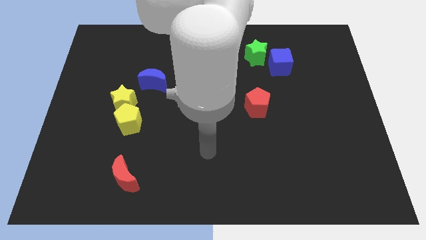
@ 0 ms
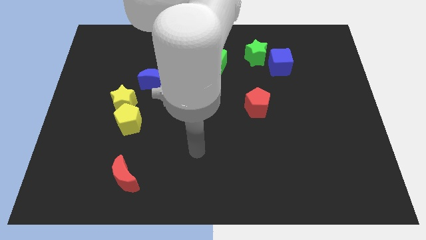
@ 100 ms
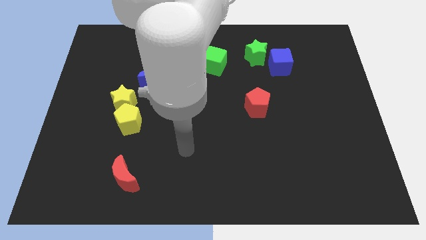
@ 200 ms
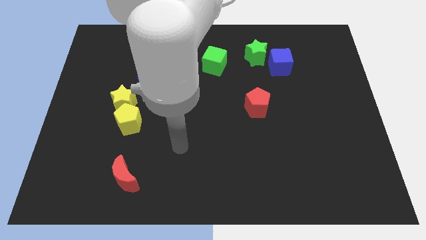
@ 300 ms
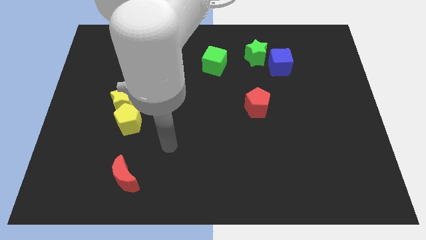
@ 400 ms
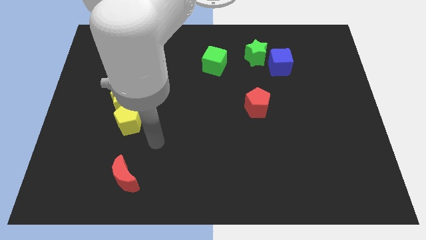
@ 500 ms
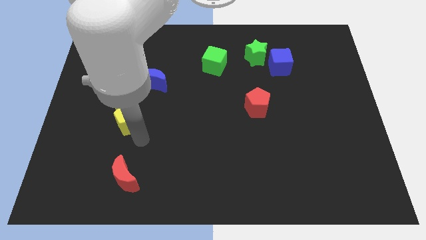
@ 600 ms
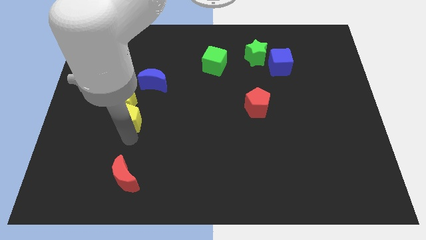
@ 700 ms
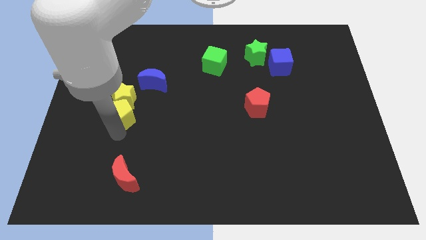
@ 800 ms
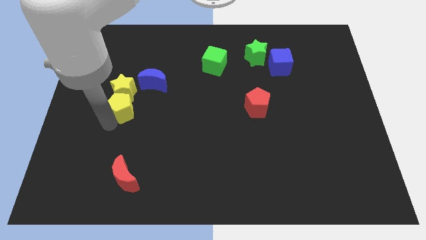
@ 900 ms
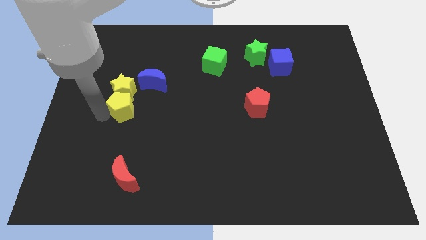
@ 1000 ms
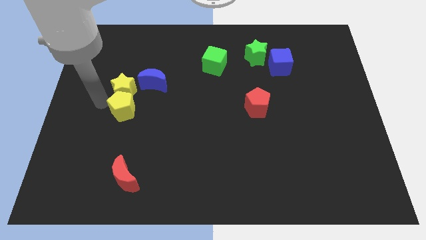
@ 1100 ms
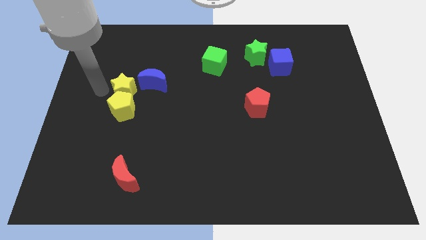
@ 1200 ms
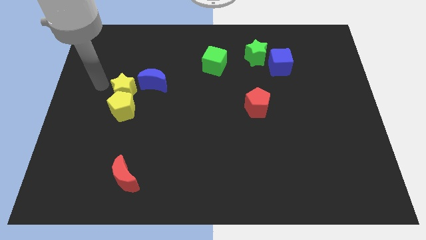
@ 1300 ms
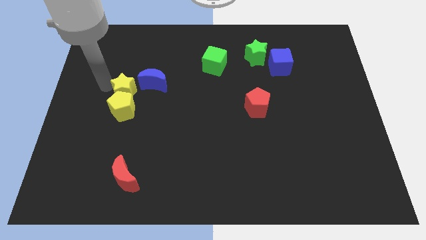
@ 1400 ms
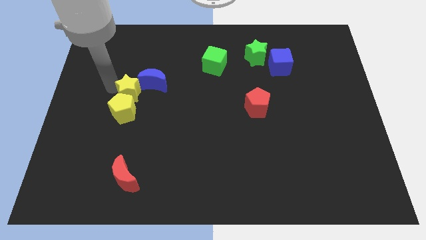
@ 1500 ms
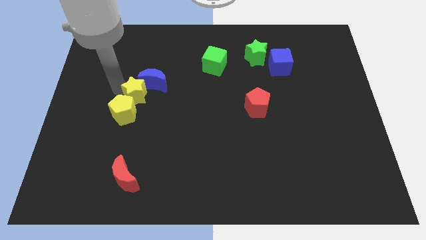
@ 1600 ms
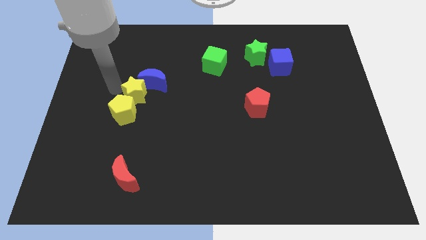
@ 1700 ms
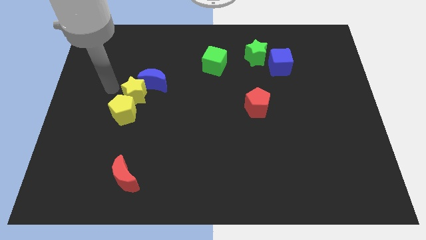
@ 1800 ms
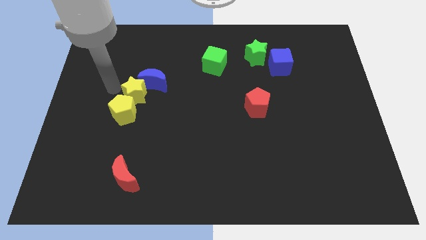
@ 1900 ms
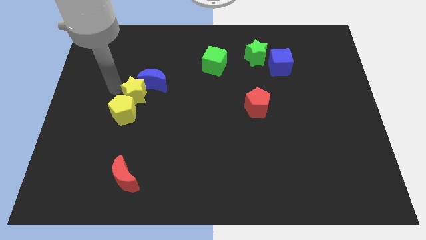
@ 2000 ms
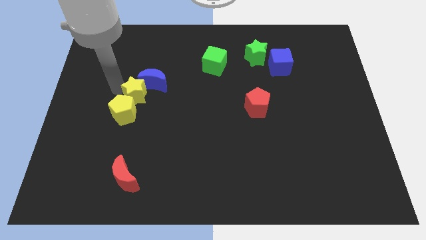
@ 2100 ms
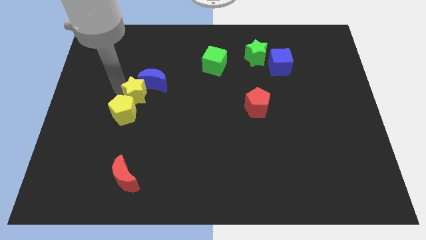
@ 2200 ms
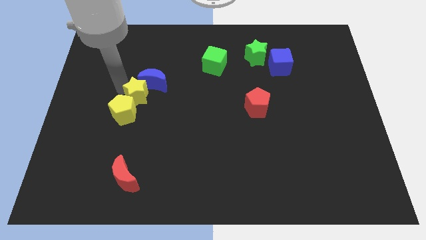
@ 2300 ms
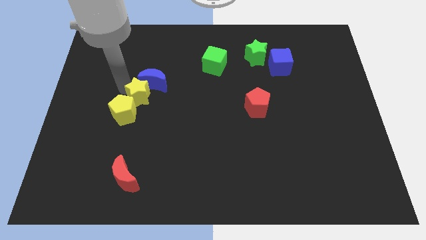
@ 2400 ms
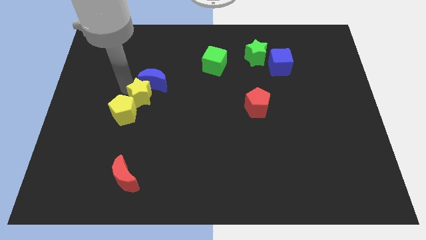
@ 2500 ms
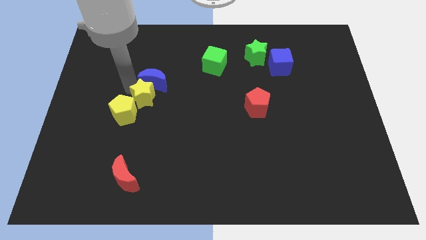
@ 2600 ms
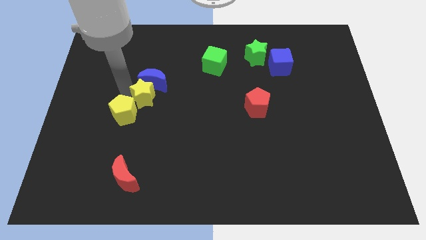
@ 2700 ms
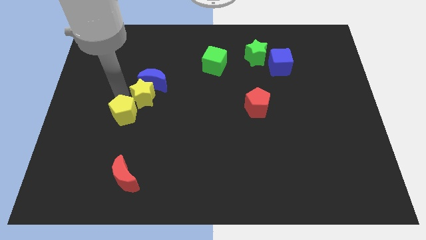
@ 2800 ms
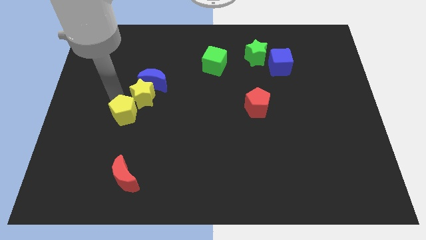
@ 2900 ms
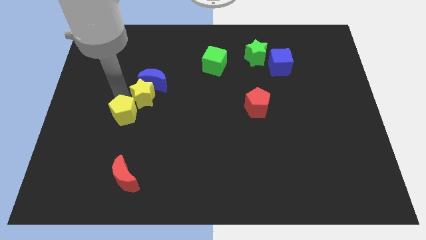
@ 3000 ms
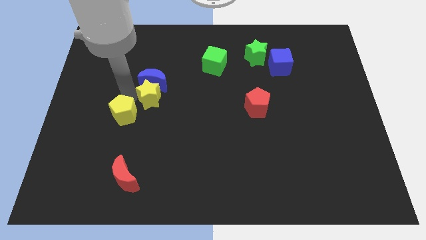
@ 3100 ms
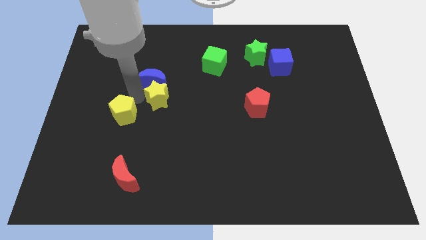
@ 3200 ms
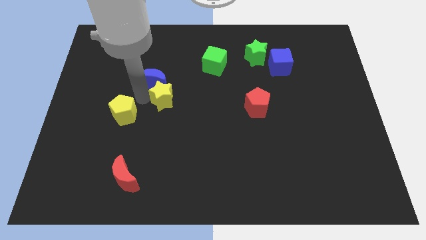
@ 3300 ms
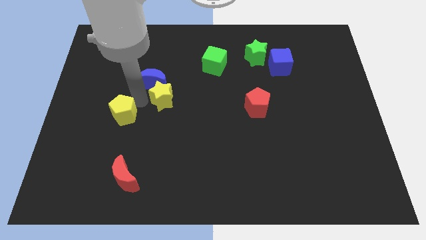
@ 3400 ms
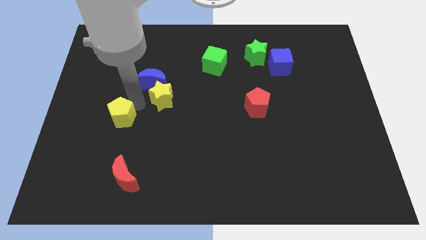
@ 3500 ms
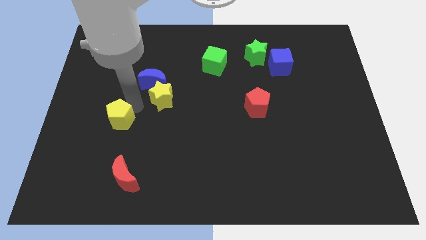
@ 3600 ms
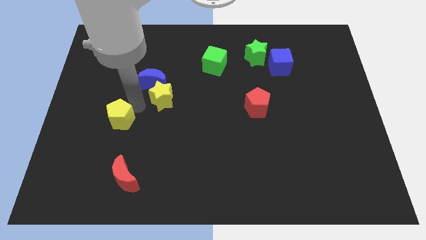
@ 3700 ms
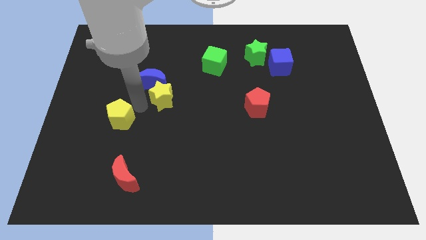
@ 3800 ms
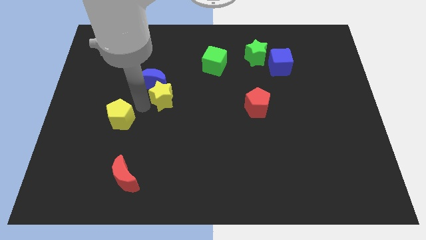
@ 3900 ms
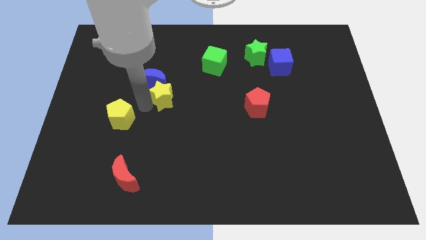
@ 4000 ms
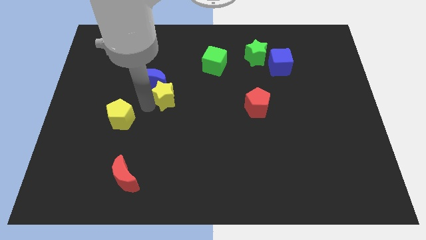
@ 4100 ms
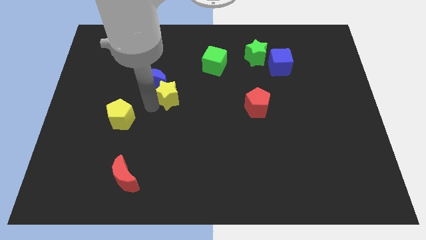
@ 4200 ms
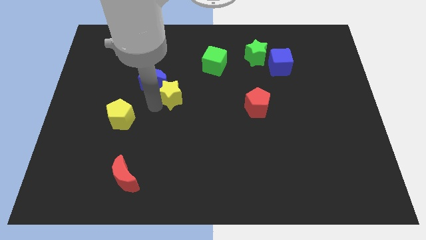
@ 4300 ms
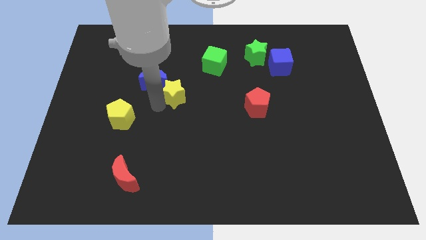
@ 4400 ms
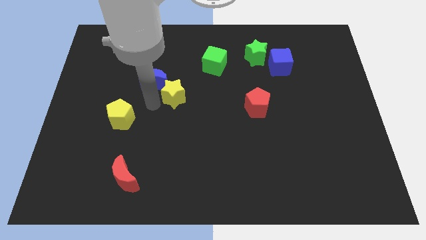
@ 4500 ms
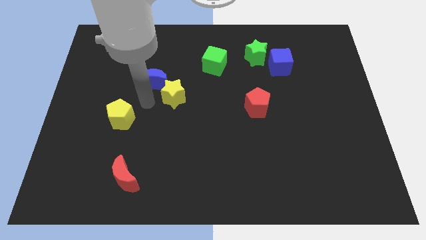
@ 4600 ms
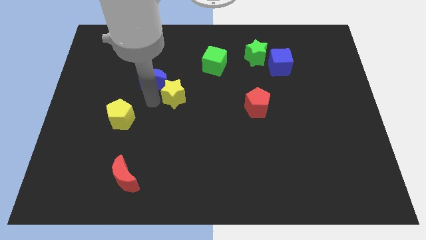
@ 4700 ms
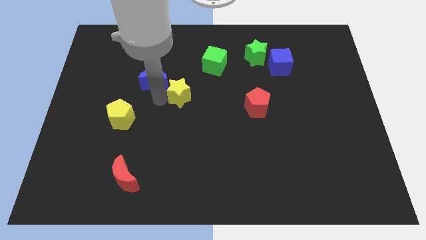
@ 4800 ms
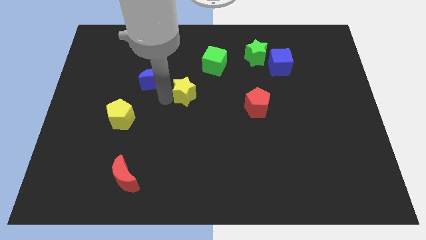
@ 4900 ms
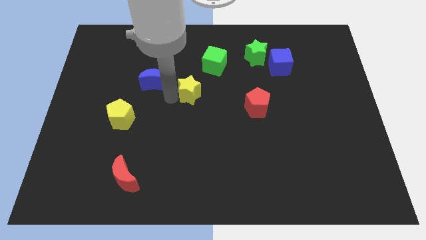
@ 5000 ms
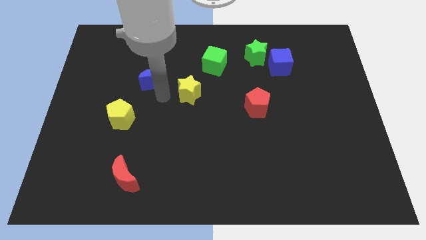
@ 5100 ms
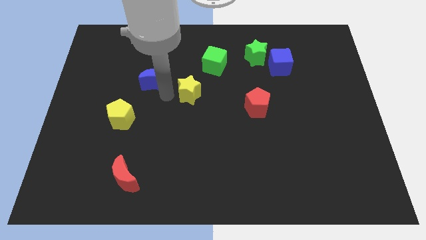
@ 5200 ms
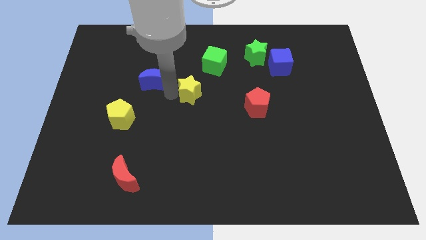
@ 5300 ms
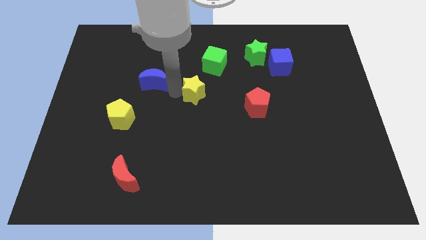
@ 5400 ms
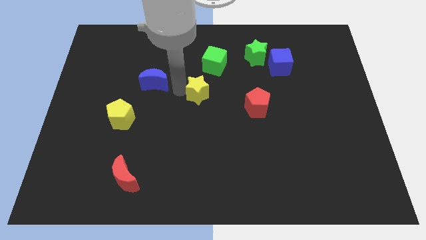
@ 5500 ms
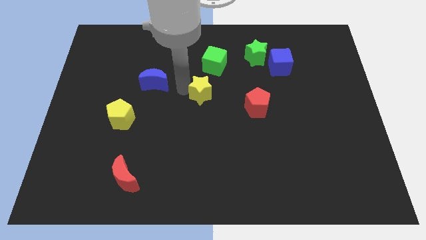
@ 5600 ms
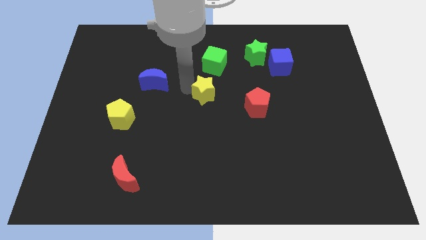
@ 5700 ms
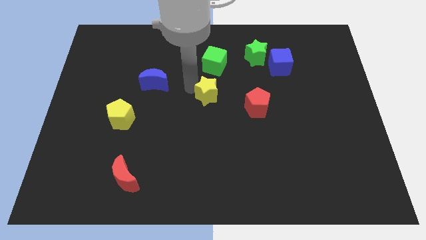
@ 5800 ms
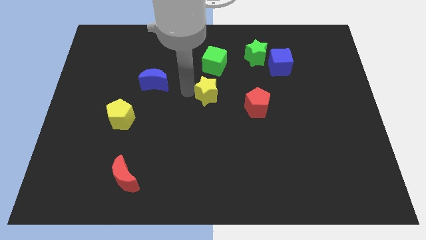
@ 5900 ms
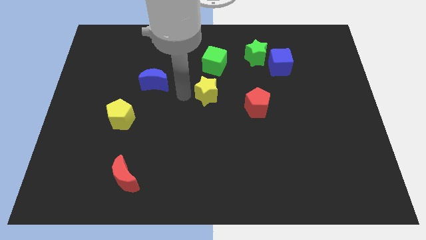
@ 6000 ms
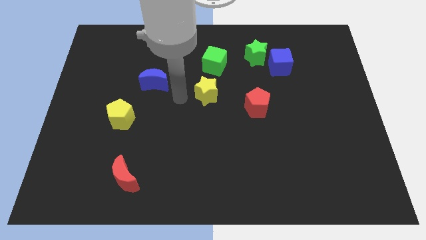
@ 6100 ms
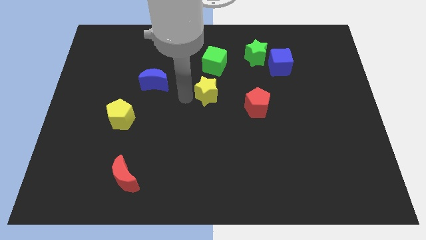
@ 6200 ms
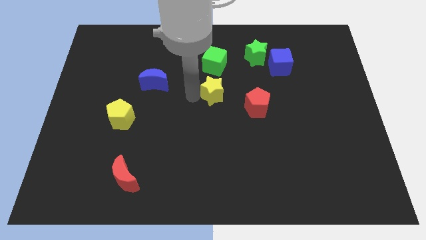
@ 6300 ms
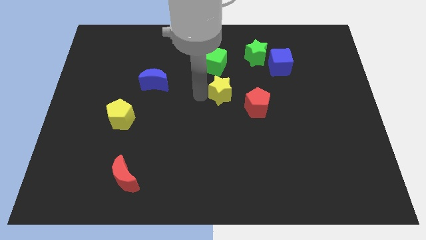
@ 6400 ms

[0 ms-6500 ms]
put the yellow star to the top left side of the red pentagon
